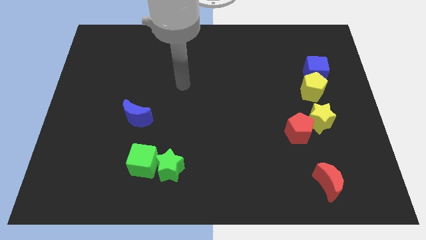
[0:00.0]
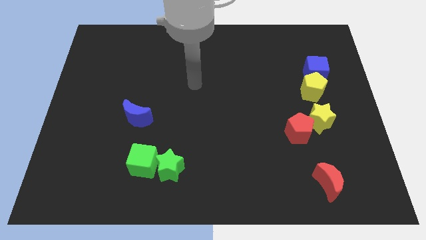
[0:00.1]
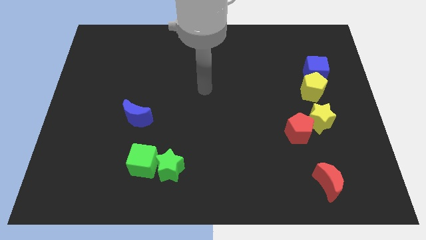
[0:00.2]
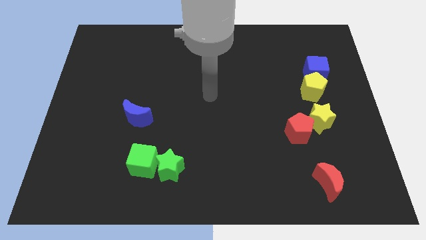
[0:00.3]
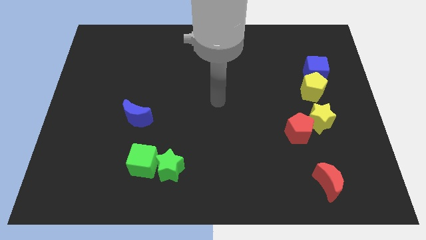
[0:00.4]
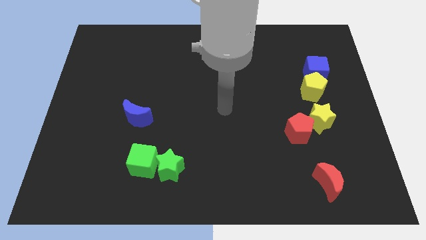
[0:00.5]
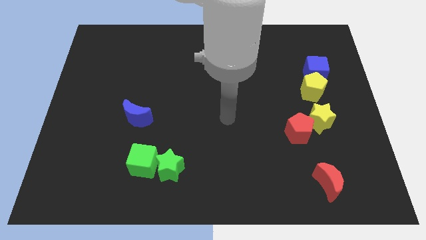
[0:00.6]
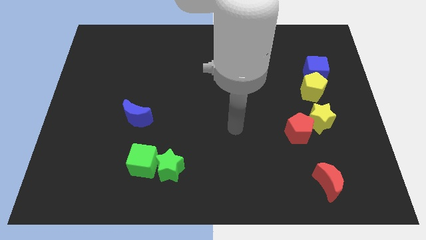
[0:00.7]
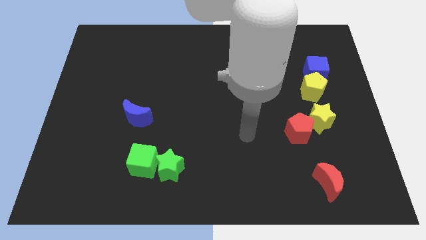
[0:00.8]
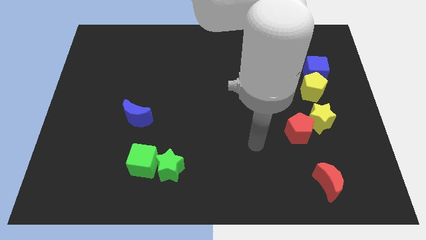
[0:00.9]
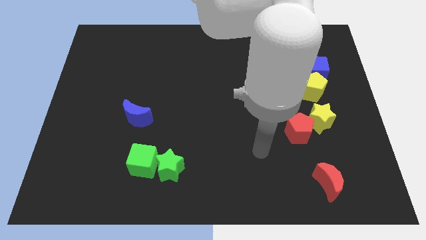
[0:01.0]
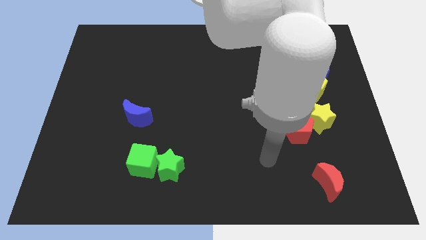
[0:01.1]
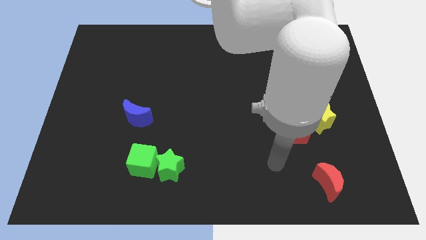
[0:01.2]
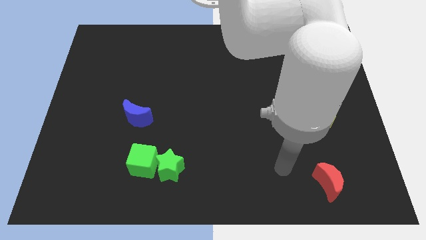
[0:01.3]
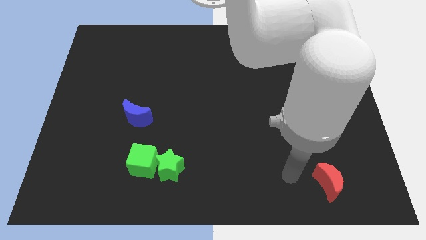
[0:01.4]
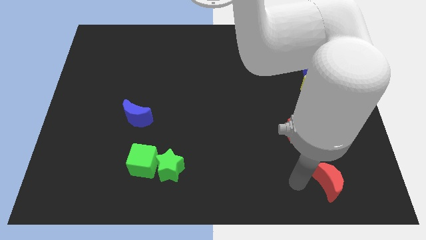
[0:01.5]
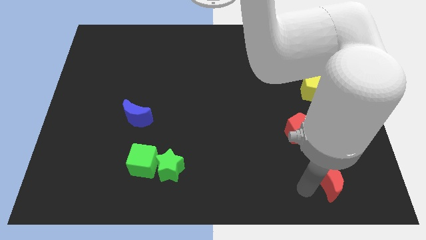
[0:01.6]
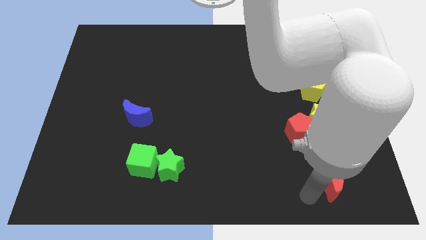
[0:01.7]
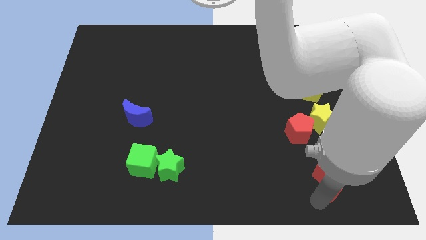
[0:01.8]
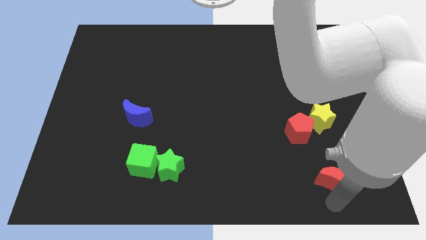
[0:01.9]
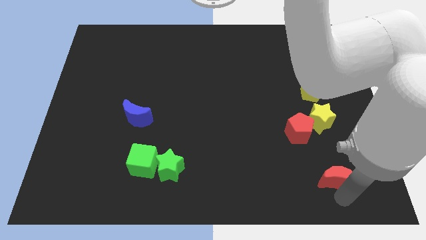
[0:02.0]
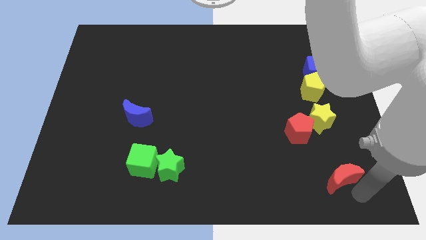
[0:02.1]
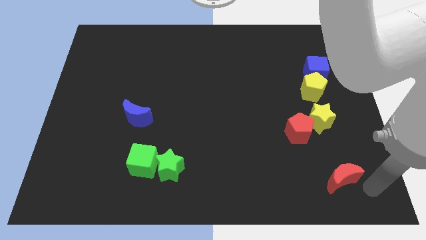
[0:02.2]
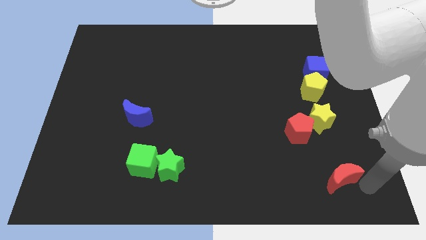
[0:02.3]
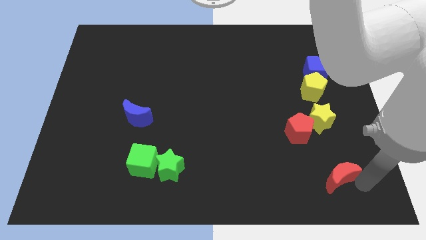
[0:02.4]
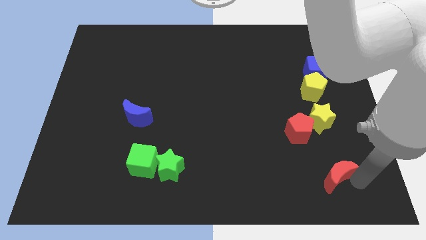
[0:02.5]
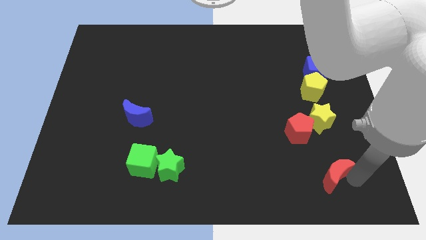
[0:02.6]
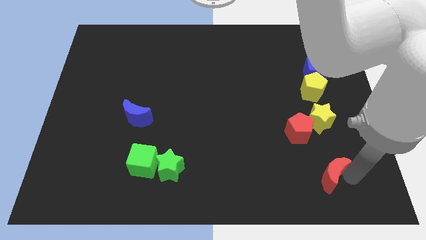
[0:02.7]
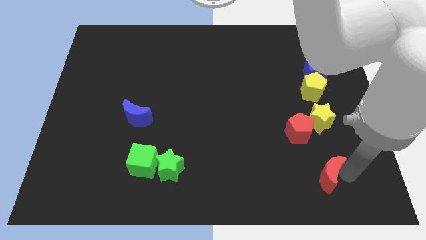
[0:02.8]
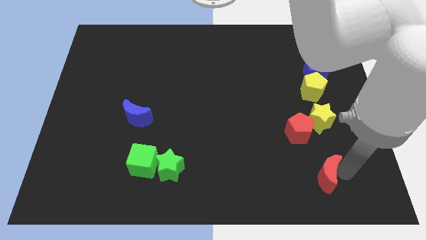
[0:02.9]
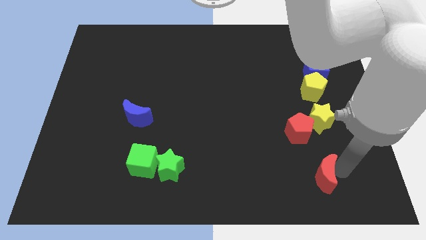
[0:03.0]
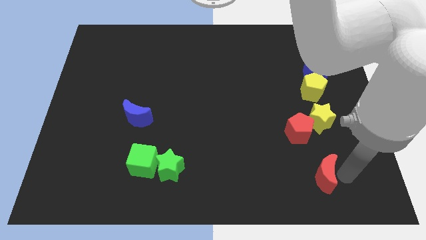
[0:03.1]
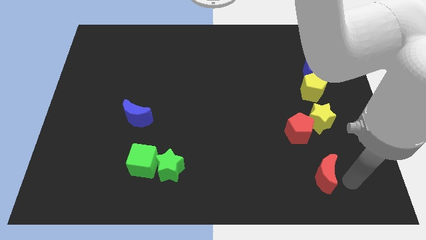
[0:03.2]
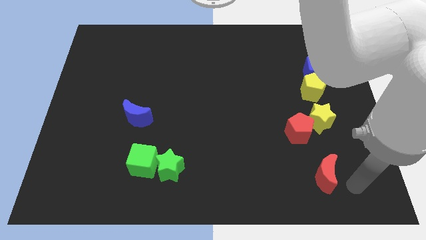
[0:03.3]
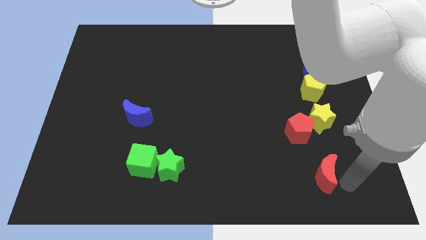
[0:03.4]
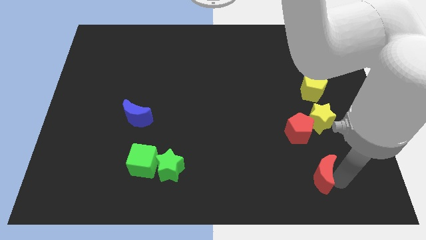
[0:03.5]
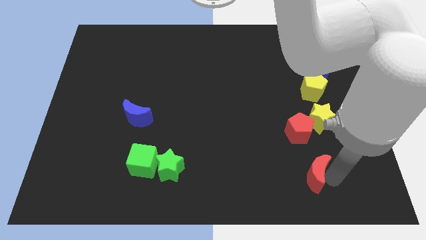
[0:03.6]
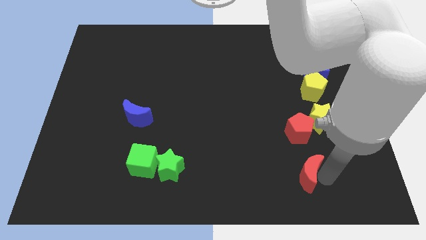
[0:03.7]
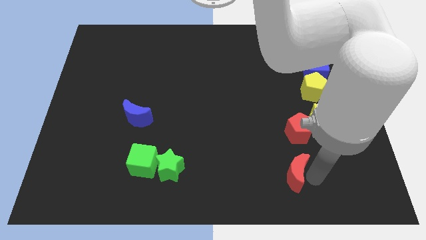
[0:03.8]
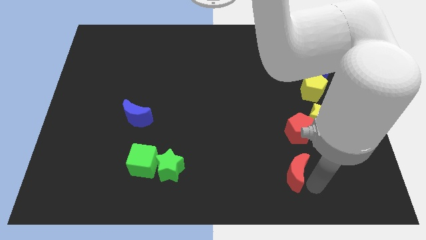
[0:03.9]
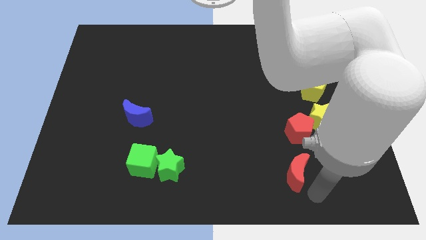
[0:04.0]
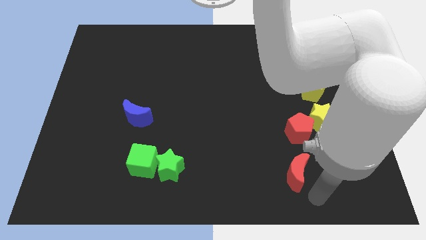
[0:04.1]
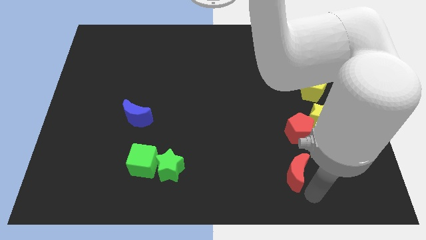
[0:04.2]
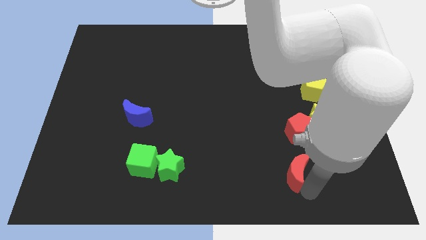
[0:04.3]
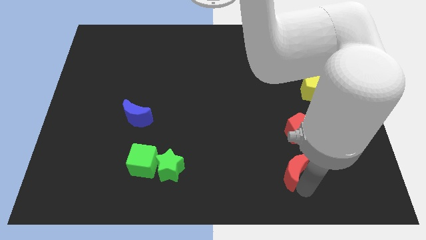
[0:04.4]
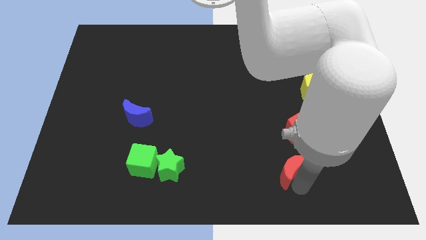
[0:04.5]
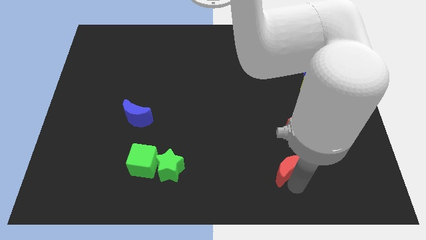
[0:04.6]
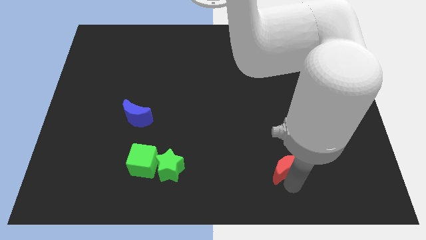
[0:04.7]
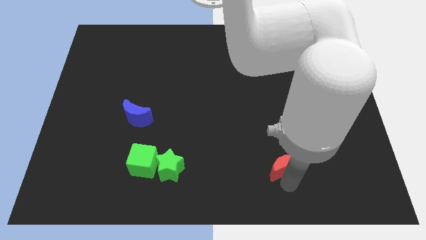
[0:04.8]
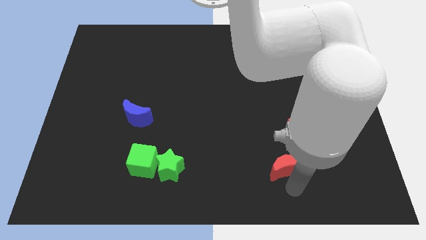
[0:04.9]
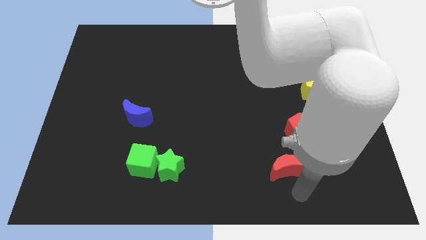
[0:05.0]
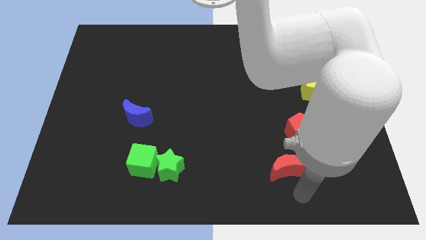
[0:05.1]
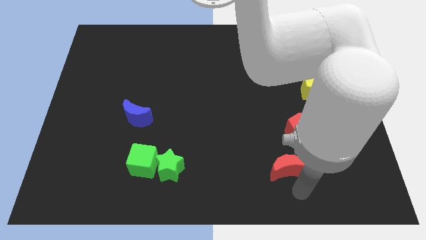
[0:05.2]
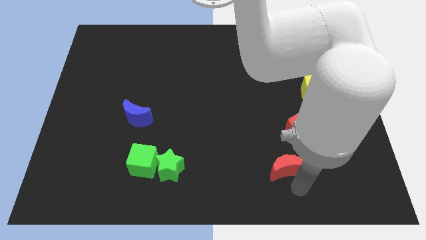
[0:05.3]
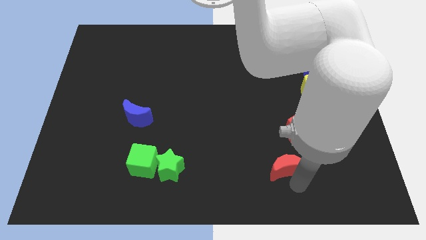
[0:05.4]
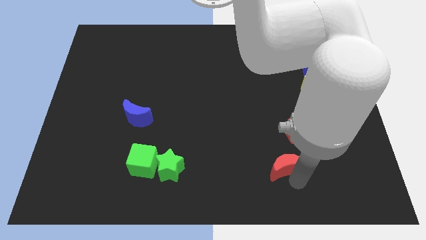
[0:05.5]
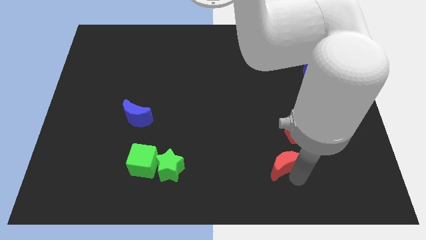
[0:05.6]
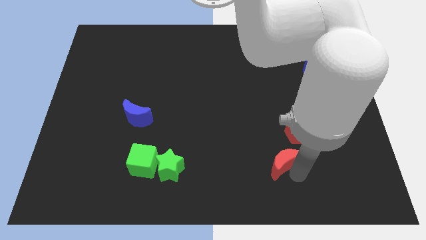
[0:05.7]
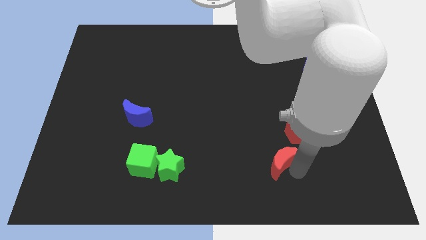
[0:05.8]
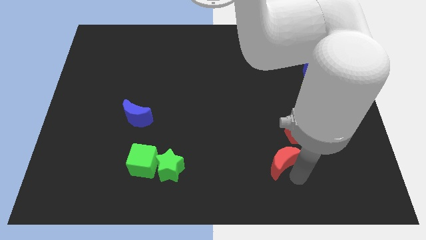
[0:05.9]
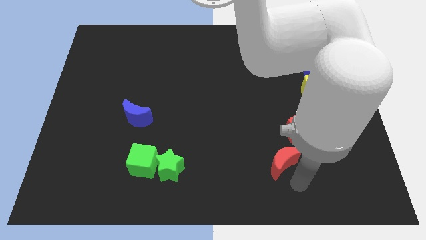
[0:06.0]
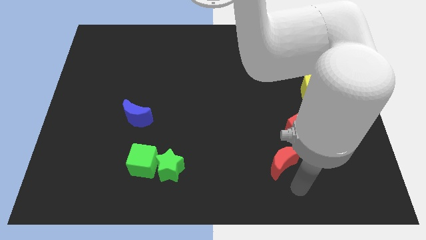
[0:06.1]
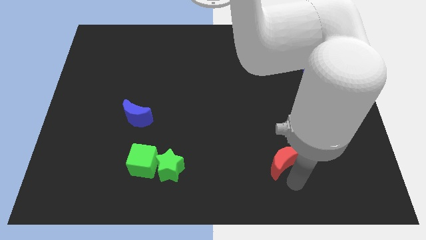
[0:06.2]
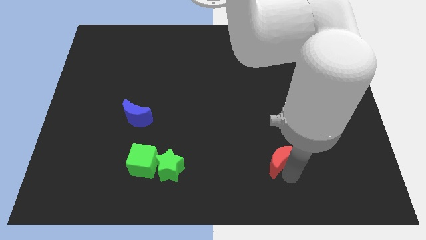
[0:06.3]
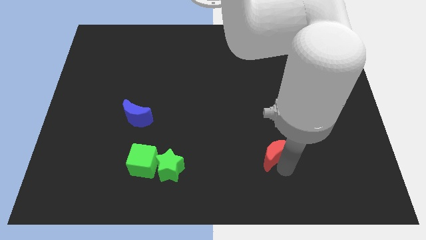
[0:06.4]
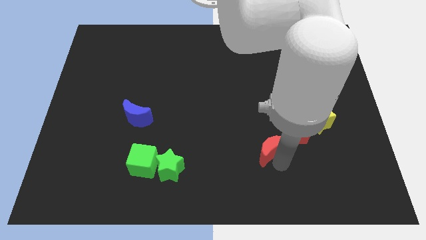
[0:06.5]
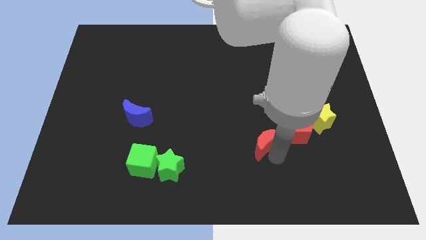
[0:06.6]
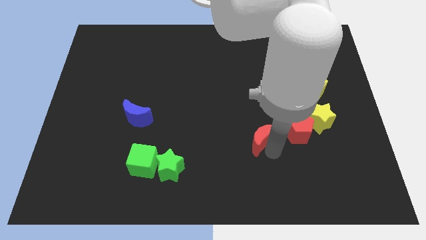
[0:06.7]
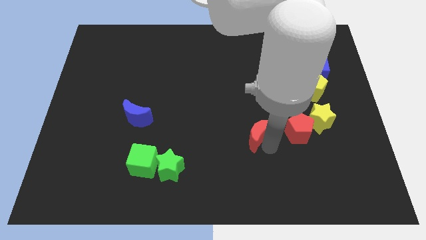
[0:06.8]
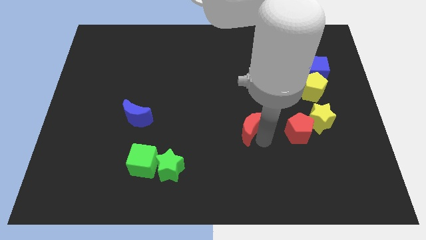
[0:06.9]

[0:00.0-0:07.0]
push the red moon upwards and to the left

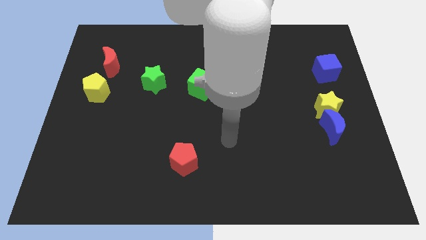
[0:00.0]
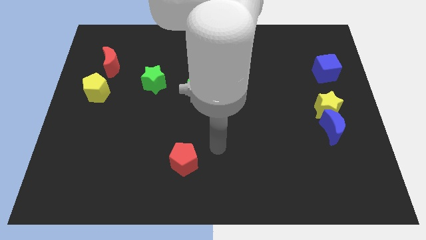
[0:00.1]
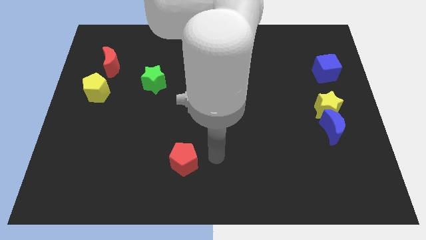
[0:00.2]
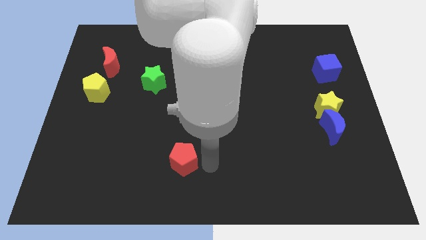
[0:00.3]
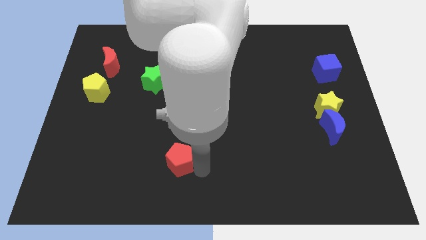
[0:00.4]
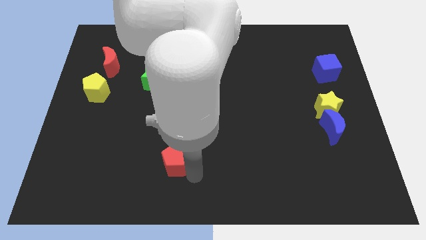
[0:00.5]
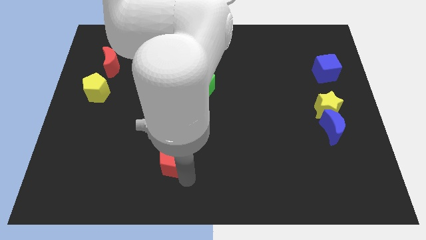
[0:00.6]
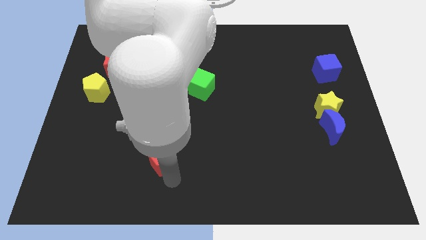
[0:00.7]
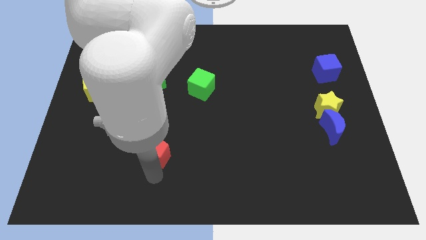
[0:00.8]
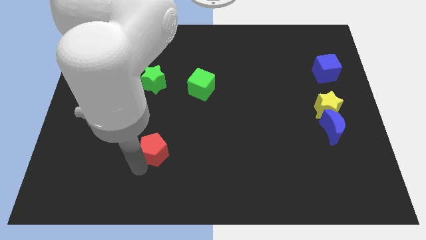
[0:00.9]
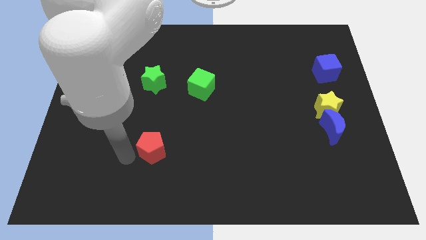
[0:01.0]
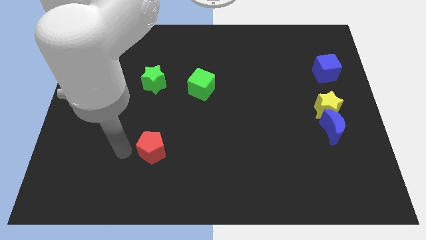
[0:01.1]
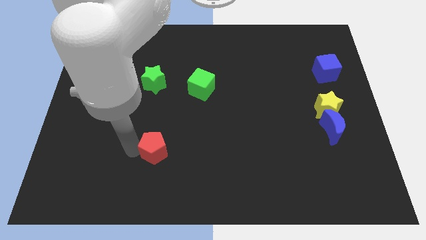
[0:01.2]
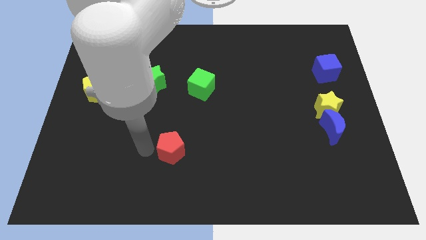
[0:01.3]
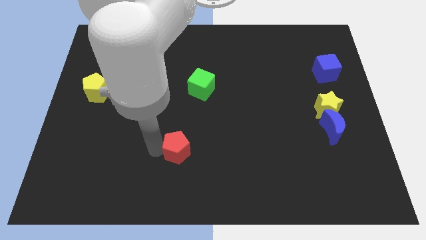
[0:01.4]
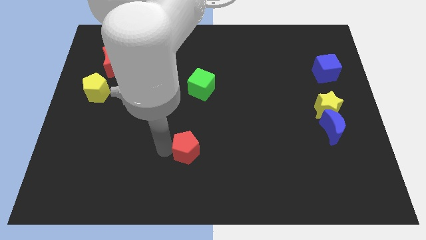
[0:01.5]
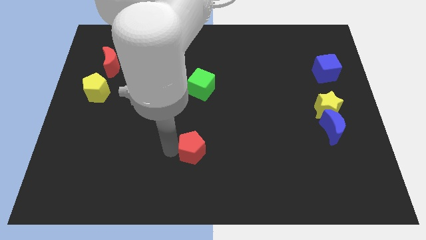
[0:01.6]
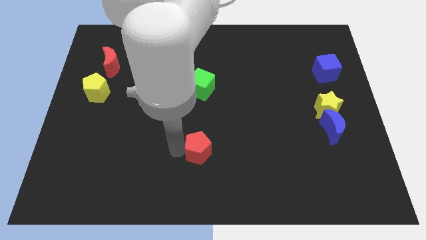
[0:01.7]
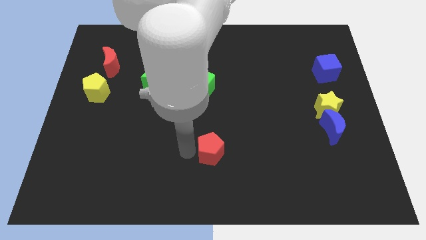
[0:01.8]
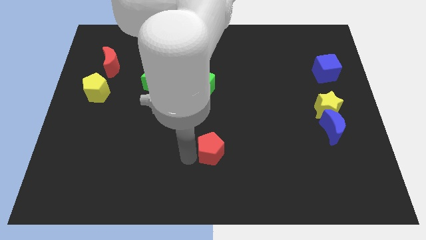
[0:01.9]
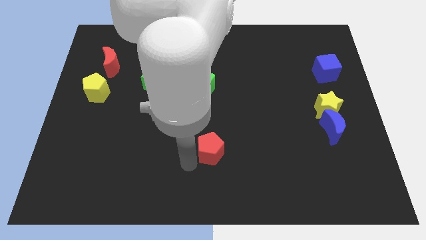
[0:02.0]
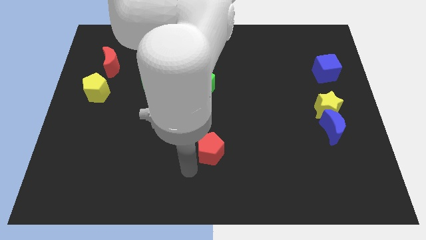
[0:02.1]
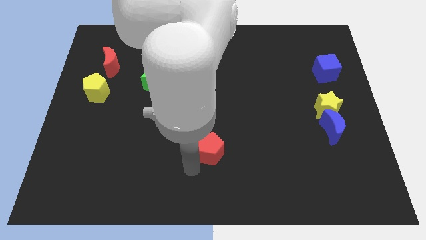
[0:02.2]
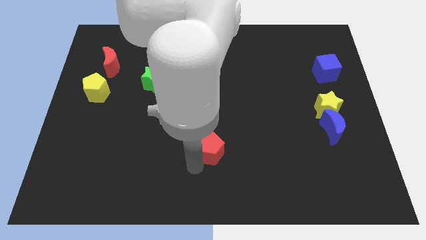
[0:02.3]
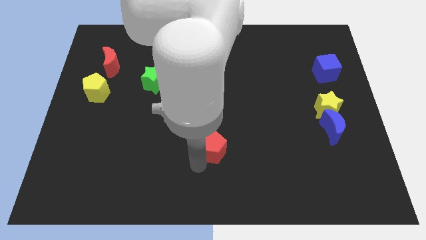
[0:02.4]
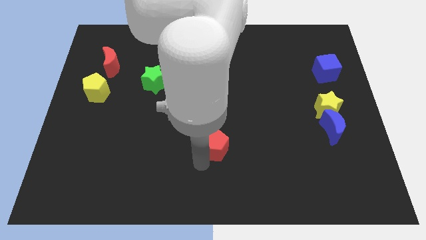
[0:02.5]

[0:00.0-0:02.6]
move the red pentagon upwards and then to the right somewhat
